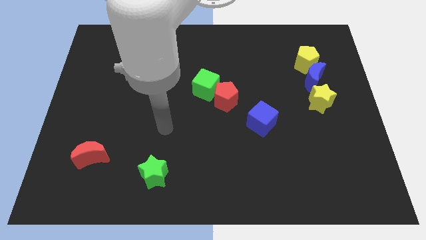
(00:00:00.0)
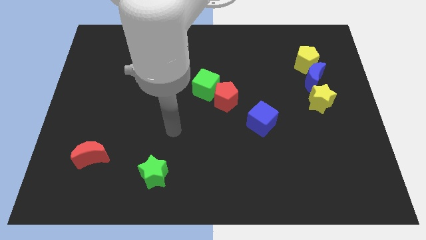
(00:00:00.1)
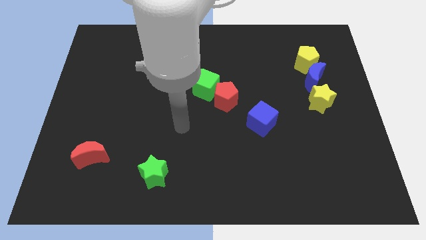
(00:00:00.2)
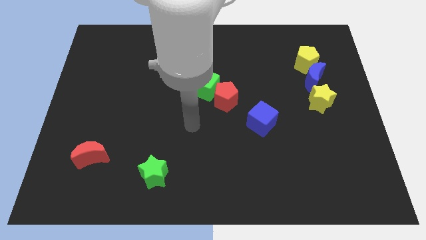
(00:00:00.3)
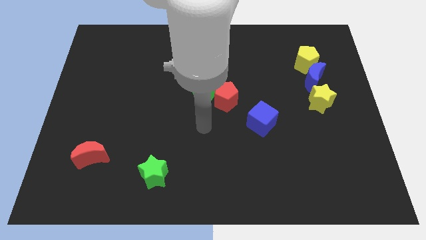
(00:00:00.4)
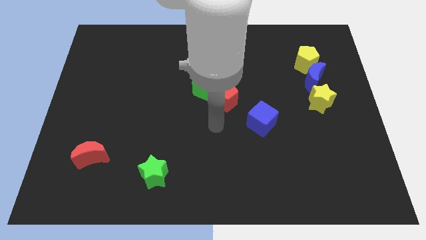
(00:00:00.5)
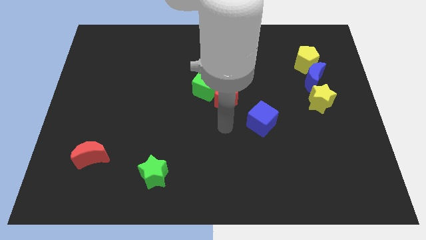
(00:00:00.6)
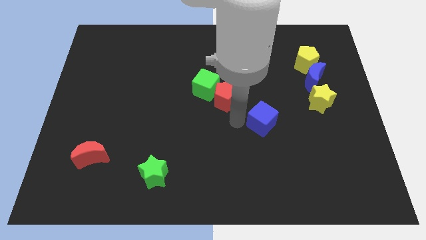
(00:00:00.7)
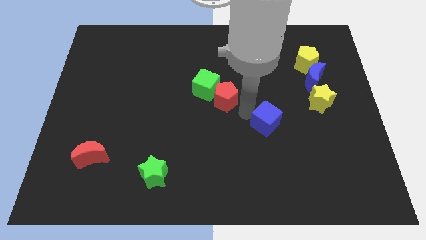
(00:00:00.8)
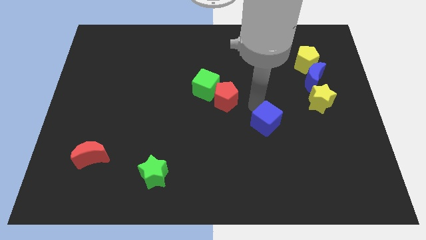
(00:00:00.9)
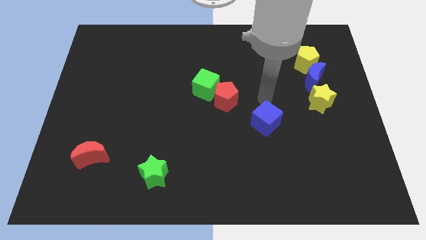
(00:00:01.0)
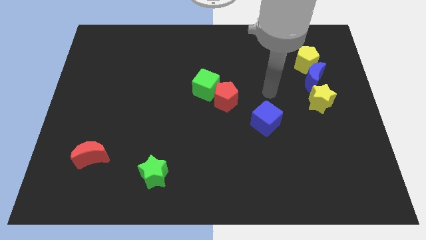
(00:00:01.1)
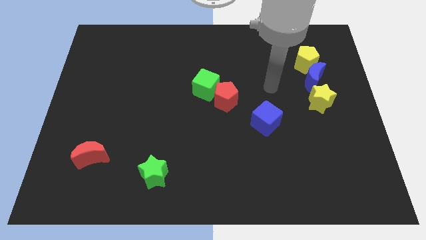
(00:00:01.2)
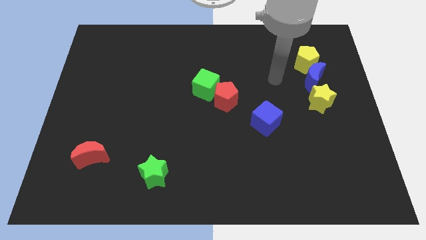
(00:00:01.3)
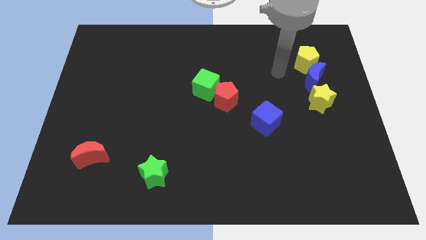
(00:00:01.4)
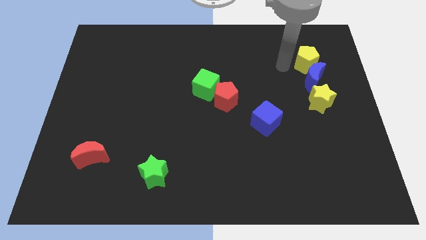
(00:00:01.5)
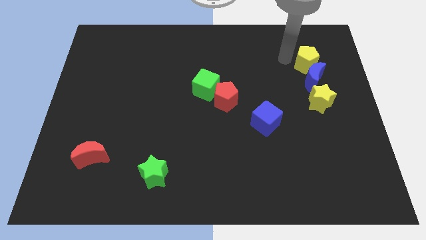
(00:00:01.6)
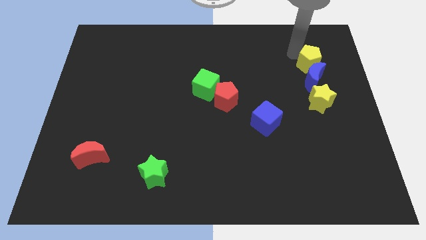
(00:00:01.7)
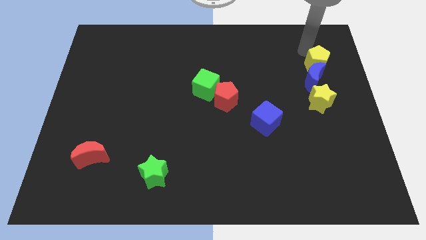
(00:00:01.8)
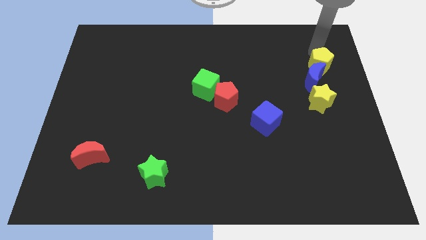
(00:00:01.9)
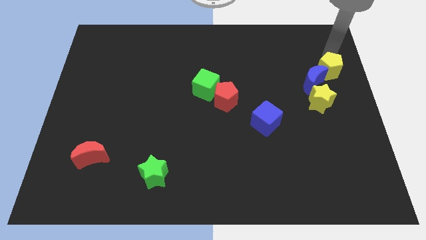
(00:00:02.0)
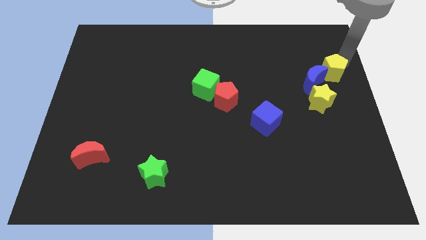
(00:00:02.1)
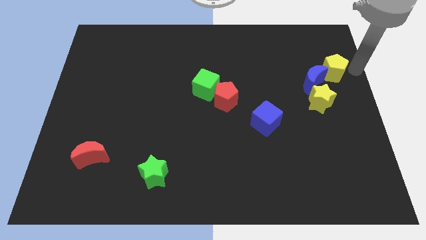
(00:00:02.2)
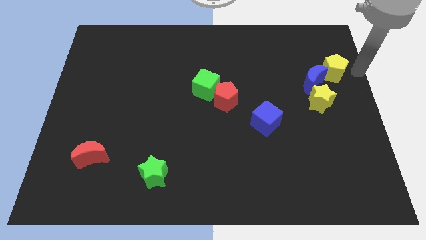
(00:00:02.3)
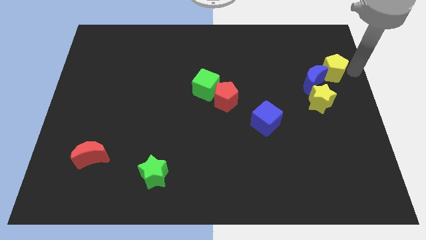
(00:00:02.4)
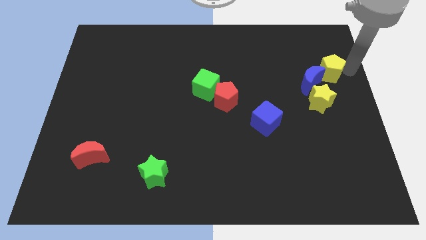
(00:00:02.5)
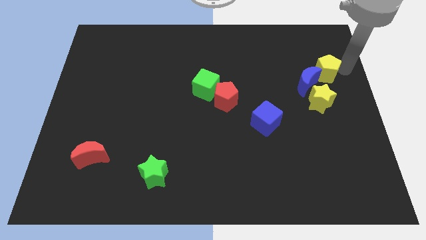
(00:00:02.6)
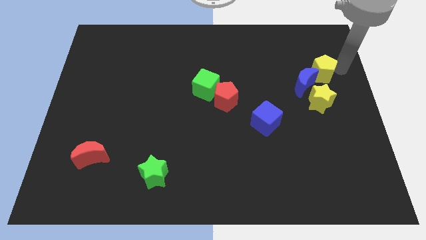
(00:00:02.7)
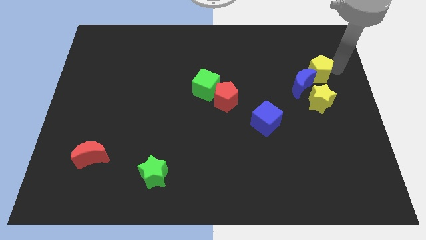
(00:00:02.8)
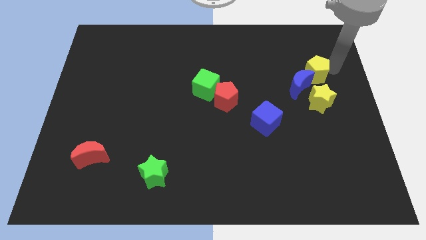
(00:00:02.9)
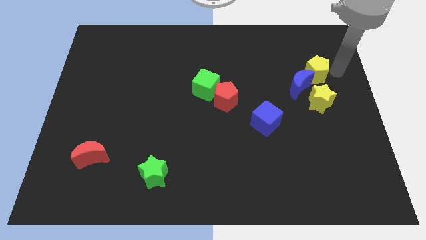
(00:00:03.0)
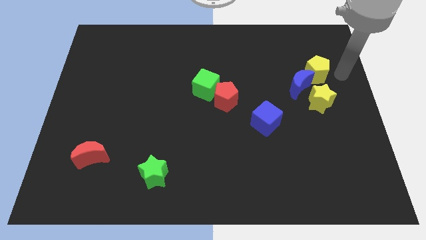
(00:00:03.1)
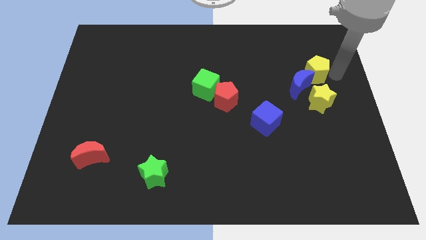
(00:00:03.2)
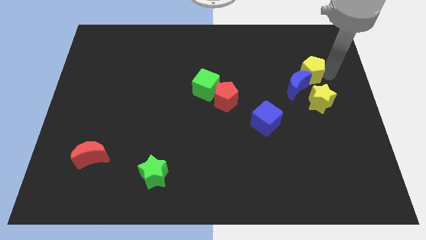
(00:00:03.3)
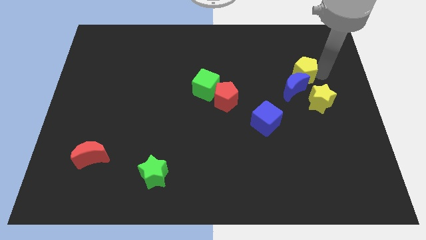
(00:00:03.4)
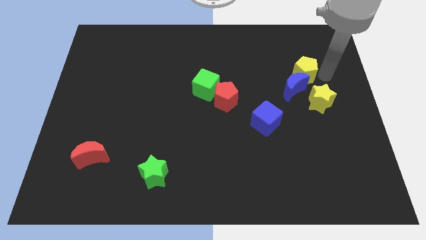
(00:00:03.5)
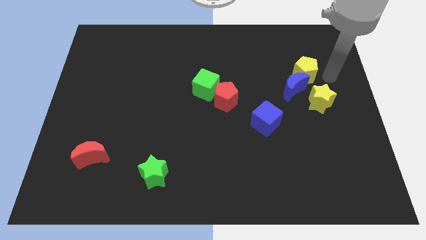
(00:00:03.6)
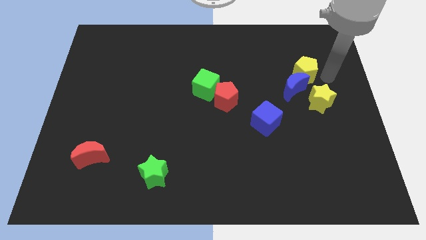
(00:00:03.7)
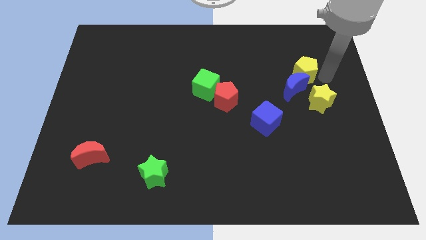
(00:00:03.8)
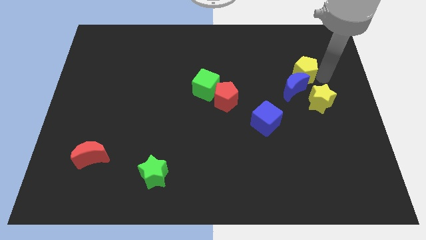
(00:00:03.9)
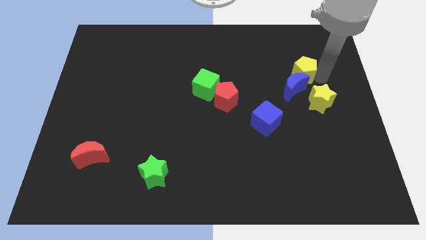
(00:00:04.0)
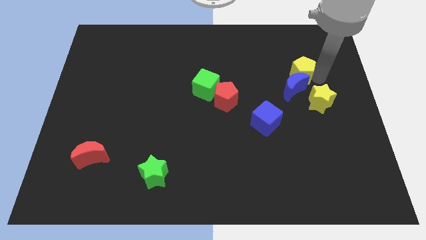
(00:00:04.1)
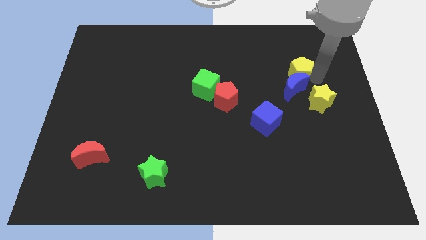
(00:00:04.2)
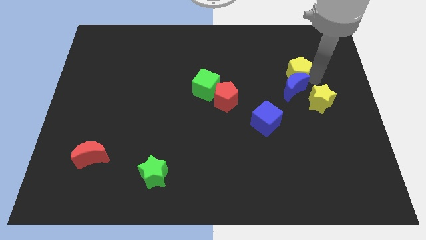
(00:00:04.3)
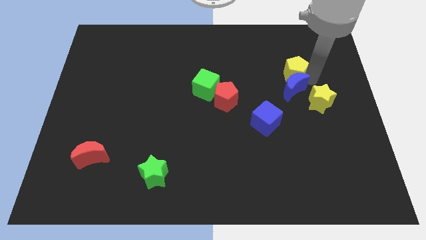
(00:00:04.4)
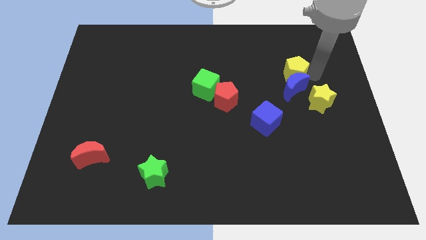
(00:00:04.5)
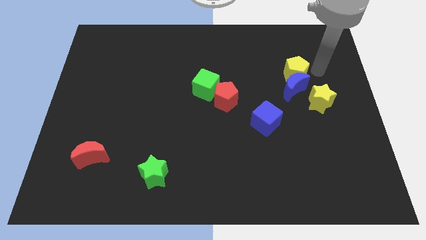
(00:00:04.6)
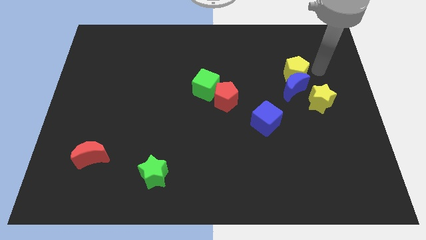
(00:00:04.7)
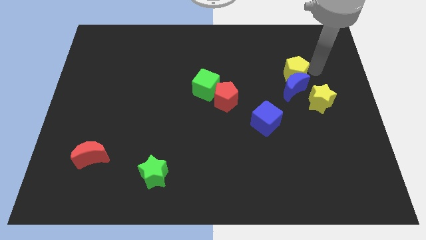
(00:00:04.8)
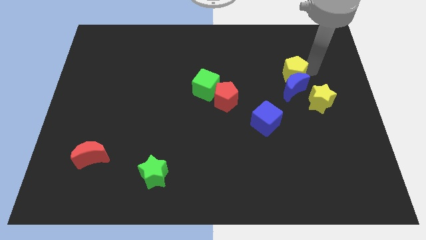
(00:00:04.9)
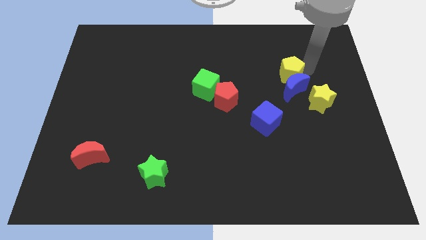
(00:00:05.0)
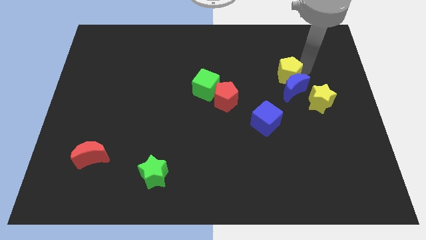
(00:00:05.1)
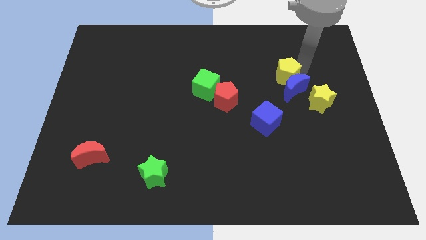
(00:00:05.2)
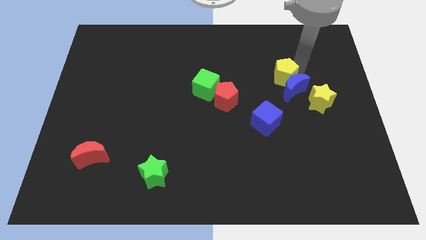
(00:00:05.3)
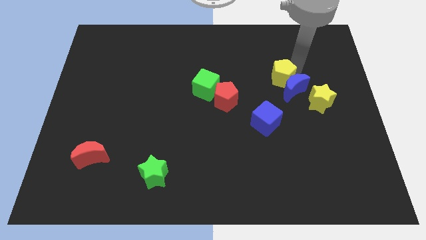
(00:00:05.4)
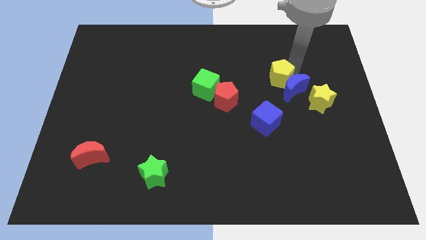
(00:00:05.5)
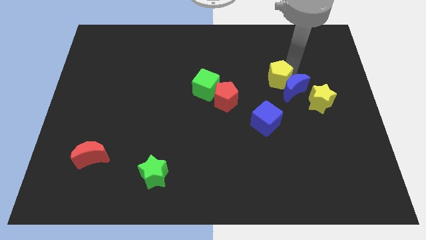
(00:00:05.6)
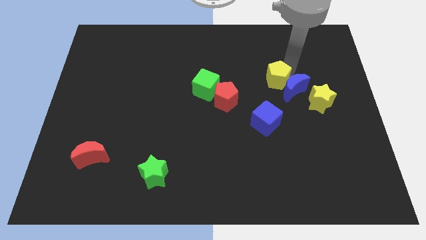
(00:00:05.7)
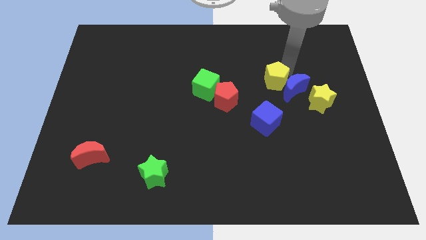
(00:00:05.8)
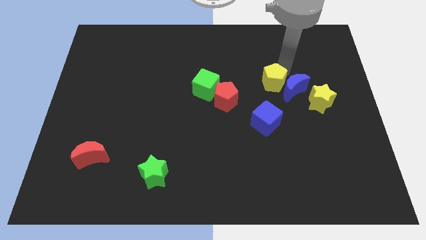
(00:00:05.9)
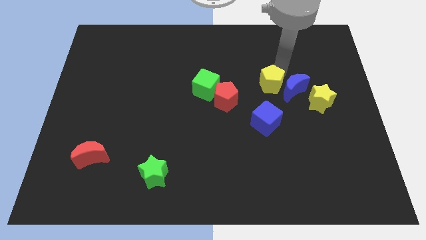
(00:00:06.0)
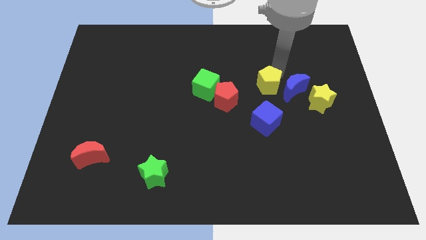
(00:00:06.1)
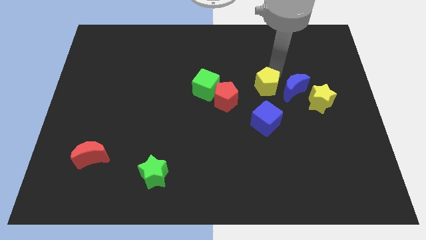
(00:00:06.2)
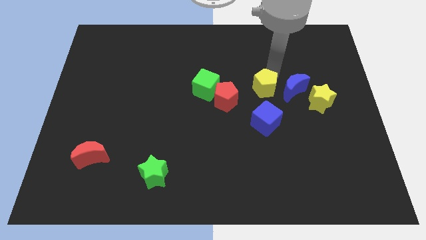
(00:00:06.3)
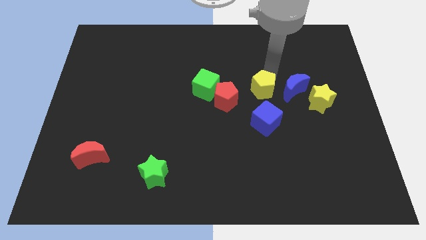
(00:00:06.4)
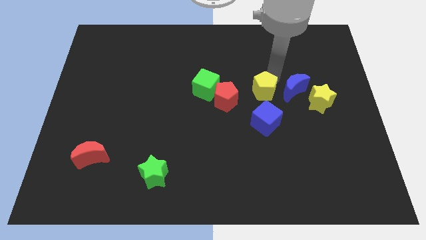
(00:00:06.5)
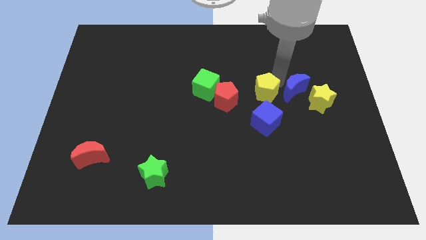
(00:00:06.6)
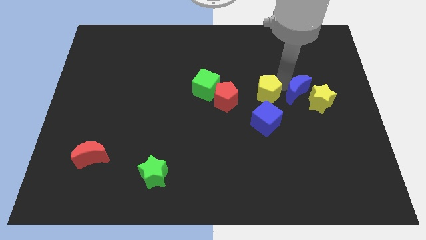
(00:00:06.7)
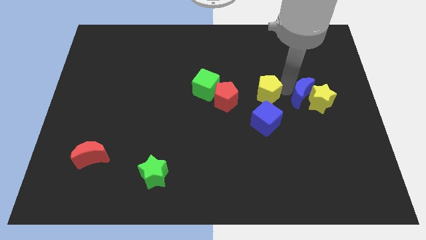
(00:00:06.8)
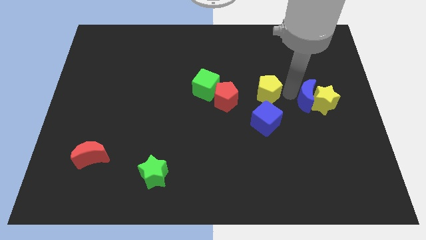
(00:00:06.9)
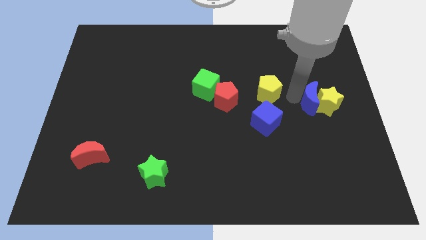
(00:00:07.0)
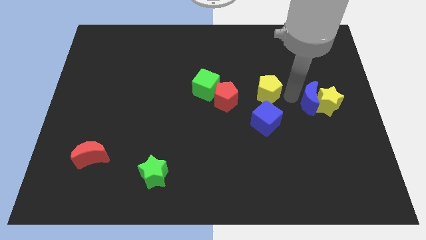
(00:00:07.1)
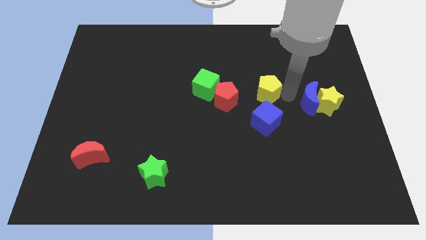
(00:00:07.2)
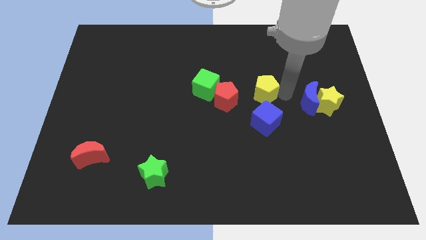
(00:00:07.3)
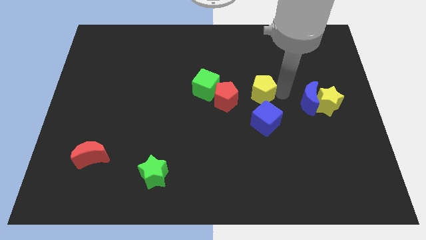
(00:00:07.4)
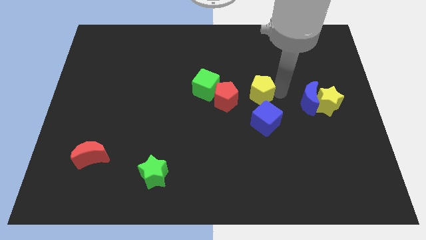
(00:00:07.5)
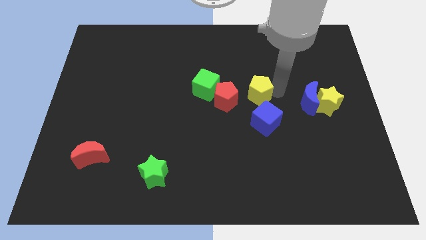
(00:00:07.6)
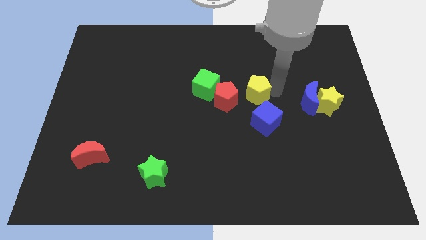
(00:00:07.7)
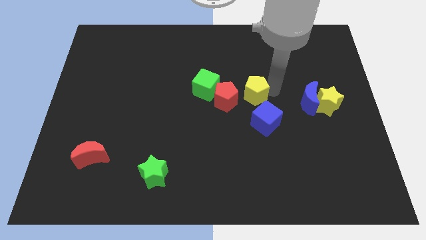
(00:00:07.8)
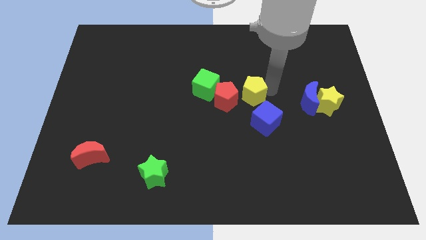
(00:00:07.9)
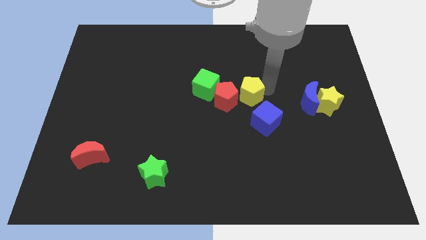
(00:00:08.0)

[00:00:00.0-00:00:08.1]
put the yellow pentagon towards the red pentagon
